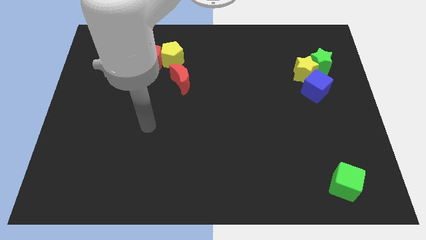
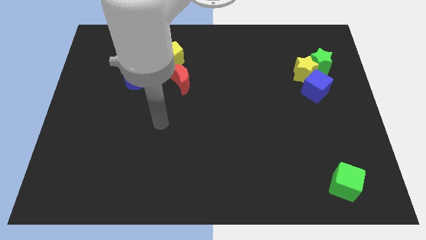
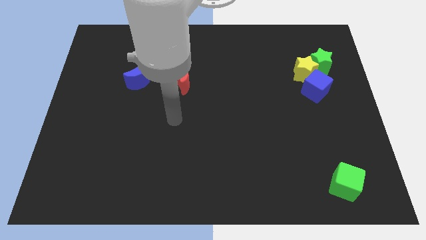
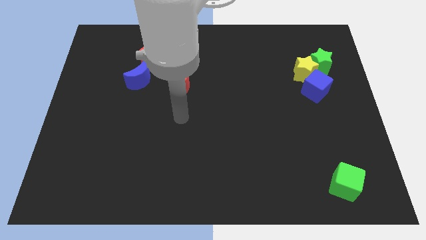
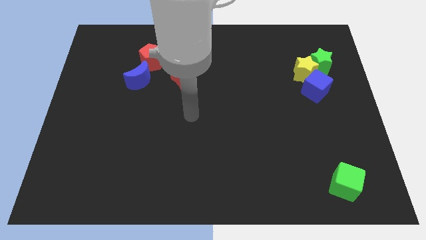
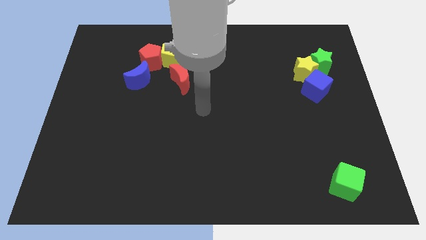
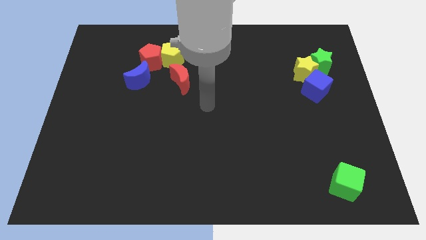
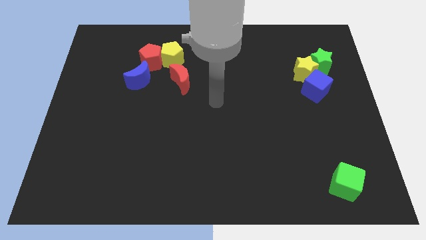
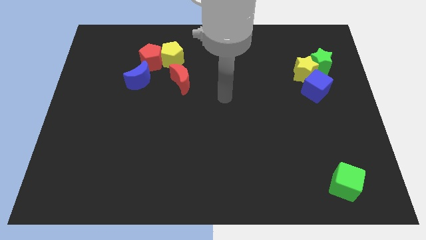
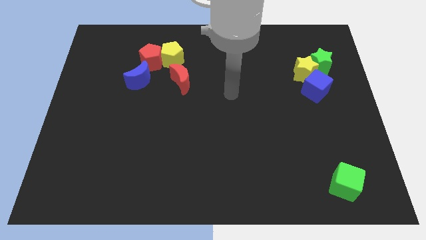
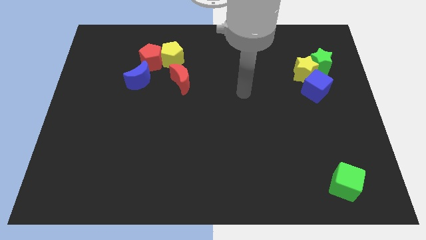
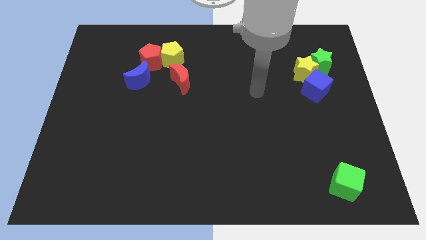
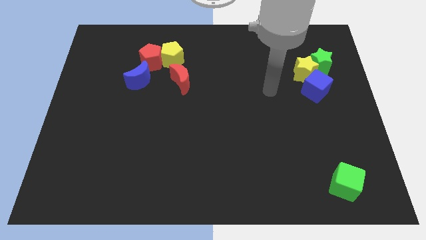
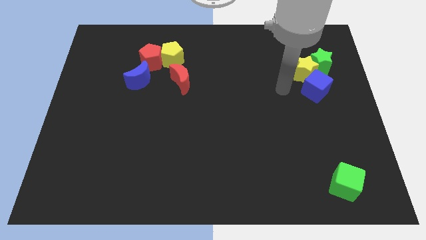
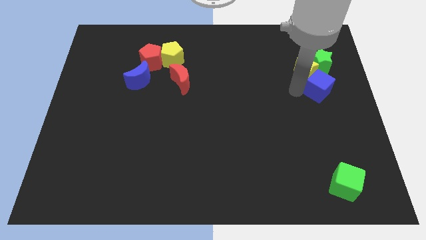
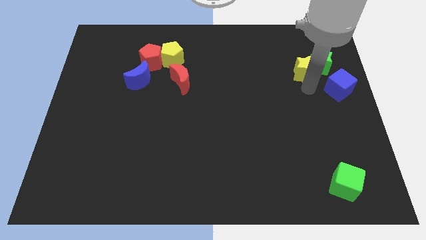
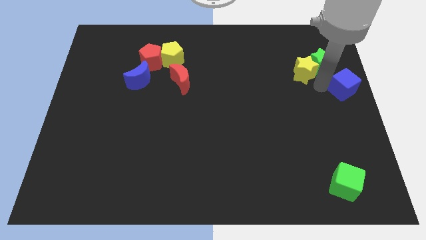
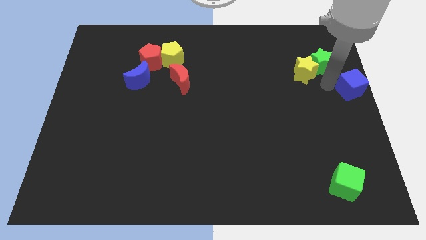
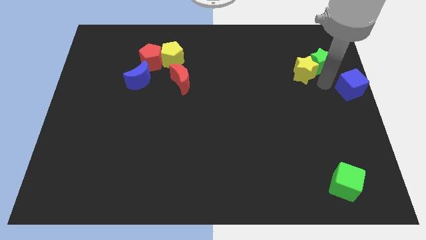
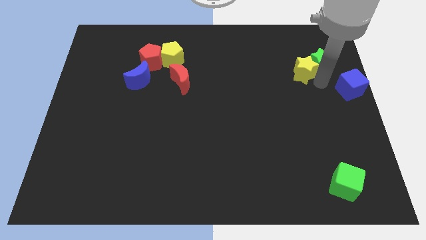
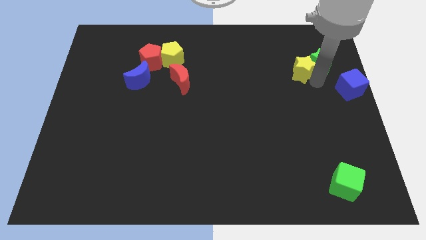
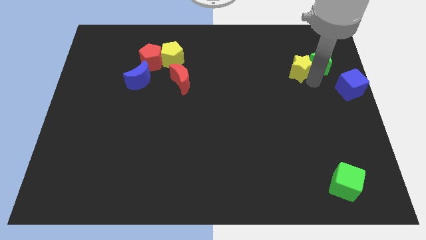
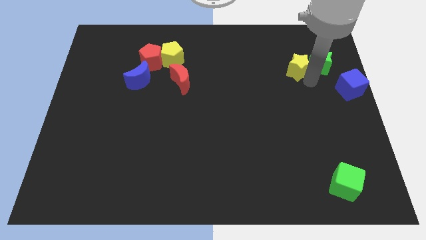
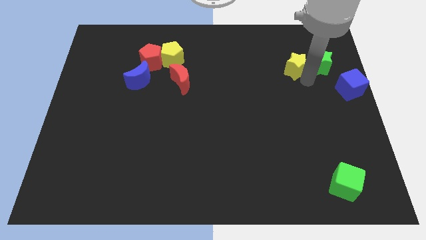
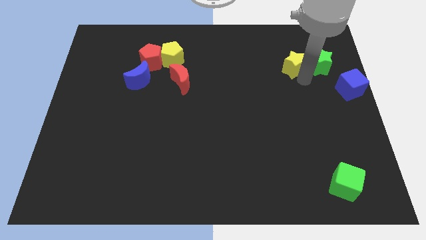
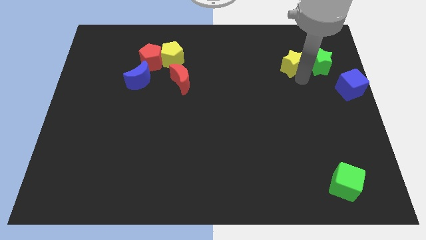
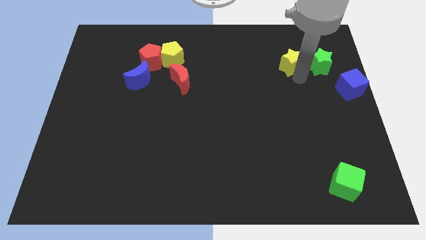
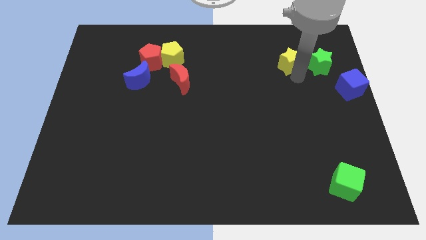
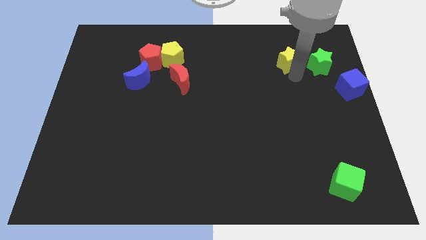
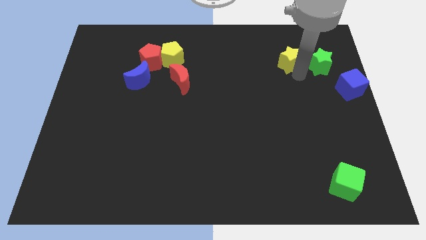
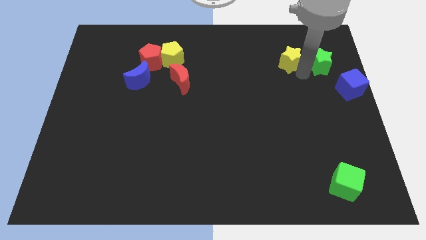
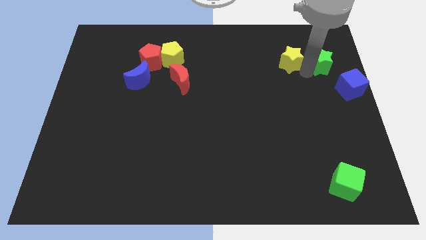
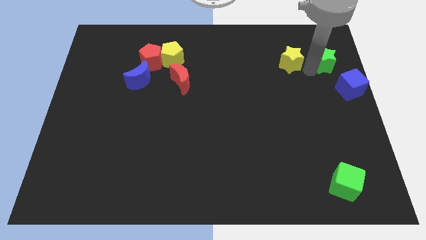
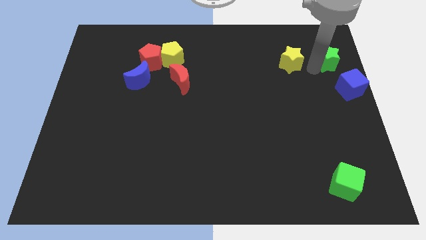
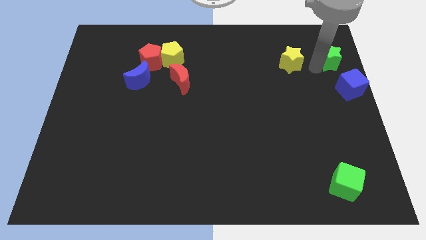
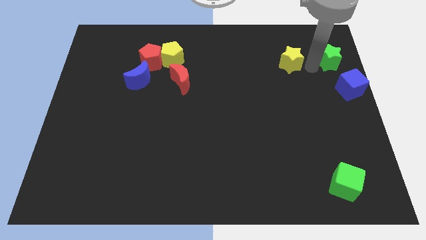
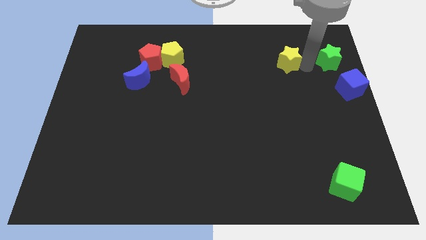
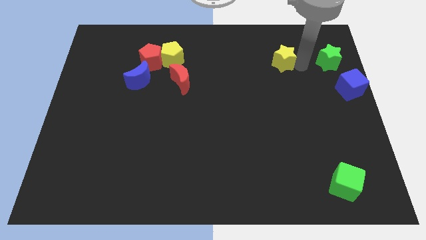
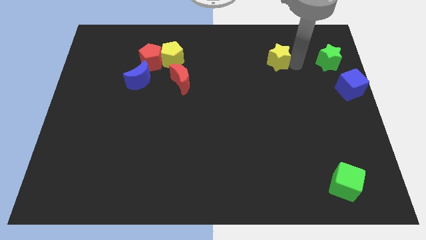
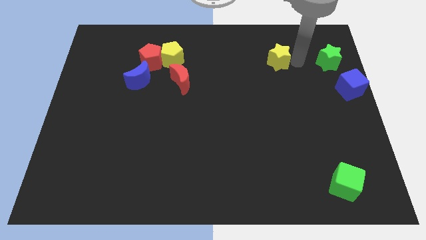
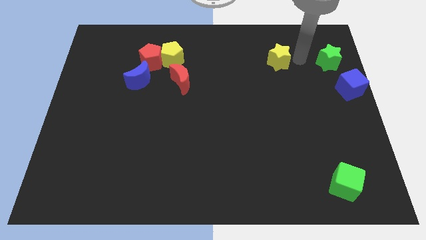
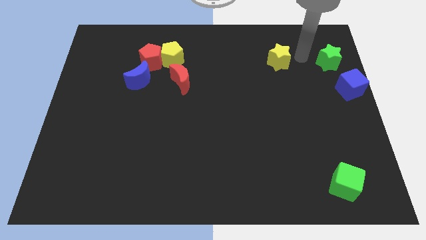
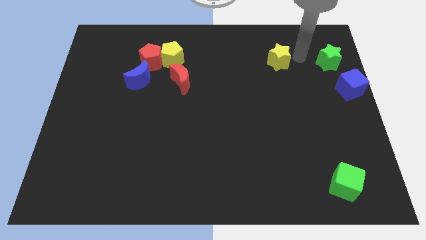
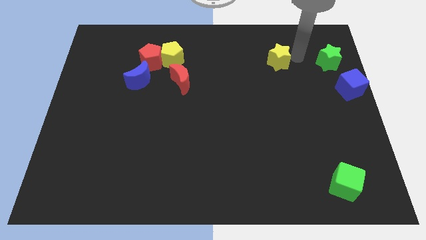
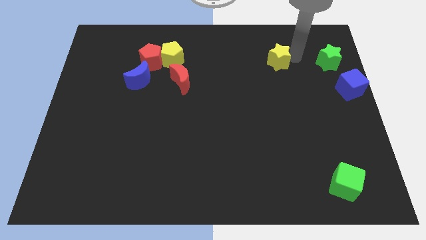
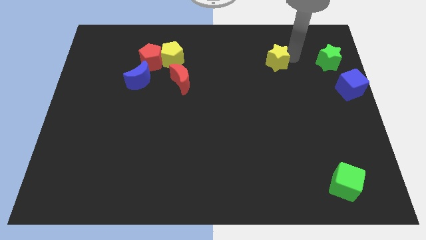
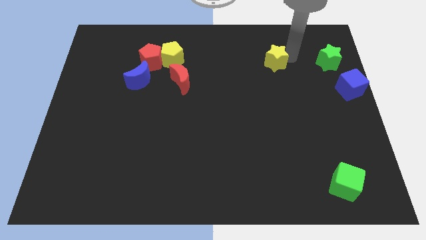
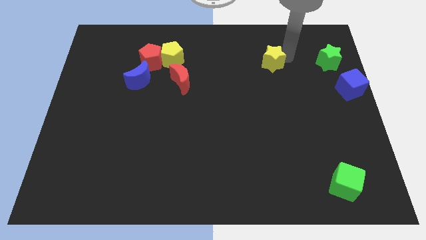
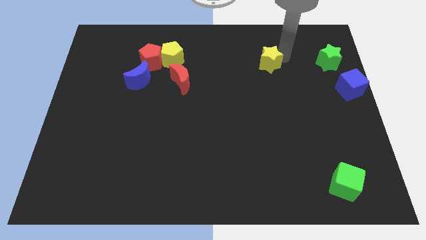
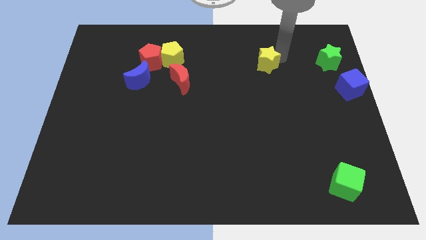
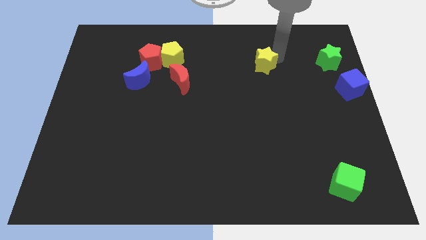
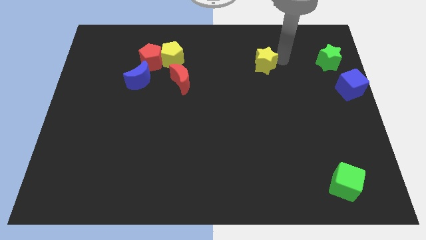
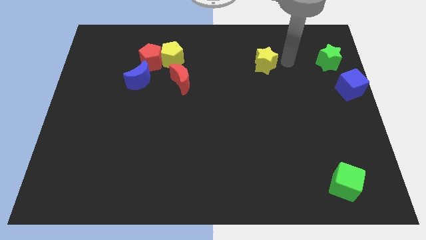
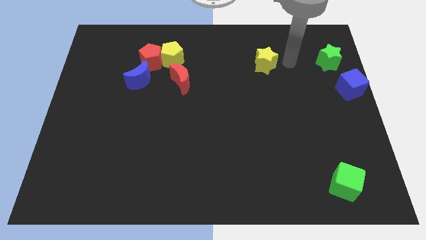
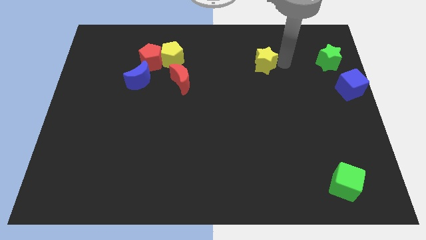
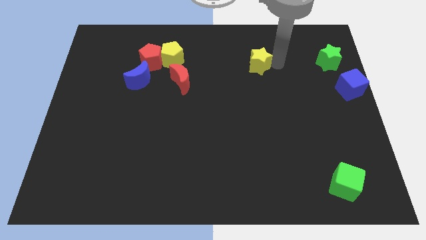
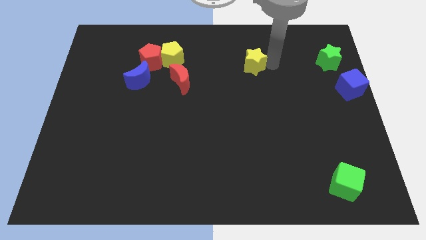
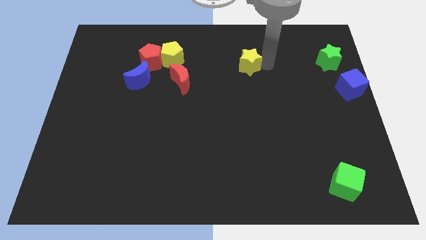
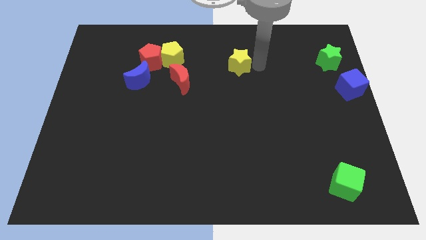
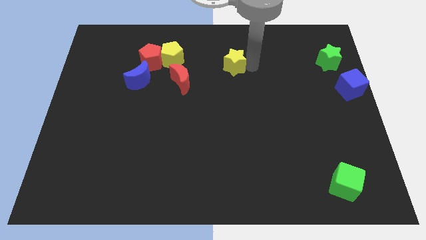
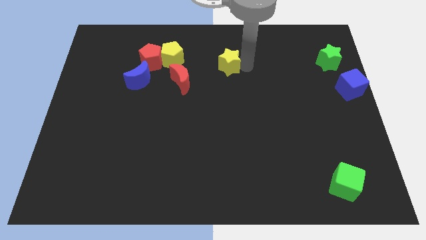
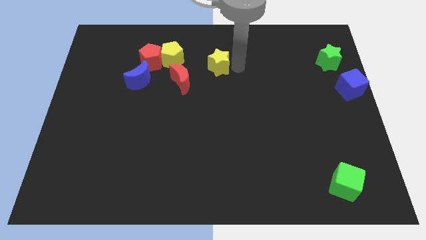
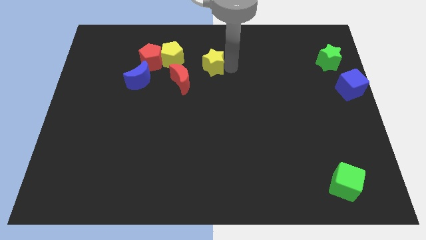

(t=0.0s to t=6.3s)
push the yellow star to the right side of the red pentagon

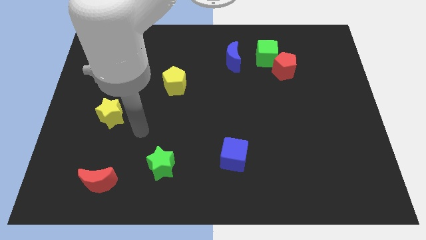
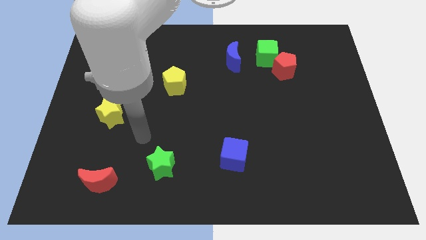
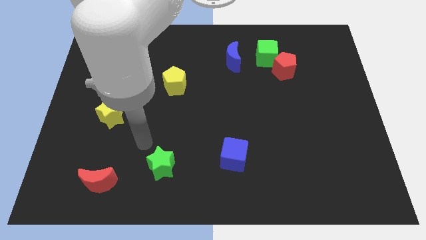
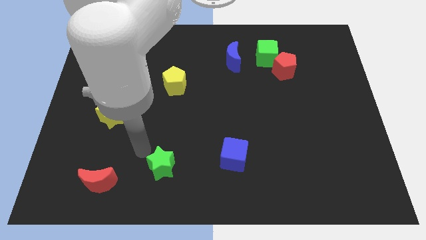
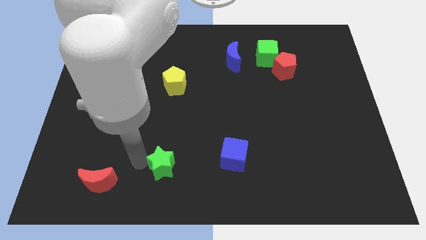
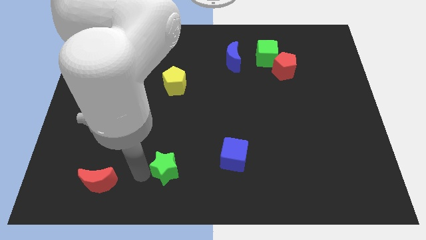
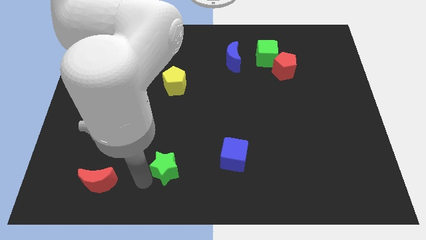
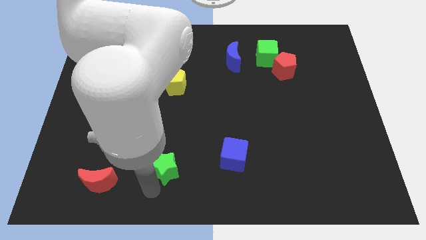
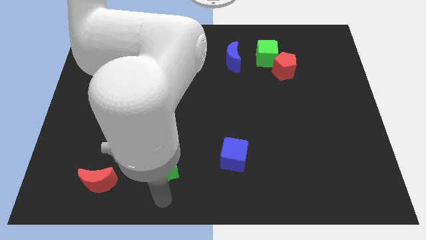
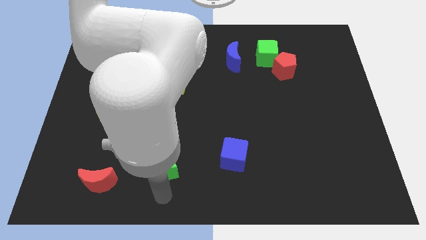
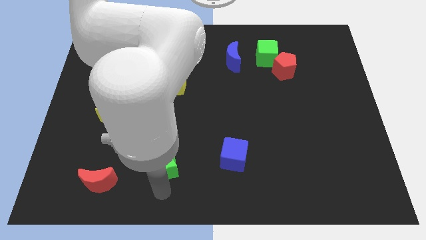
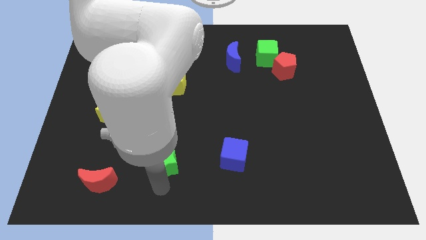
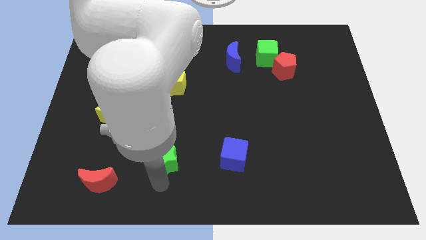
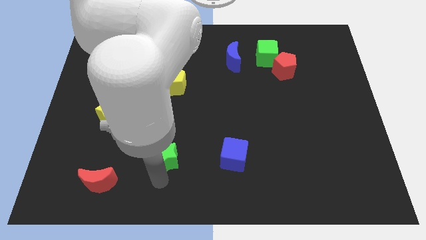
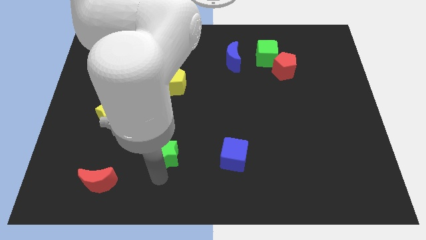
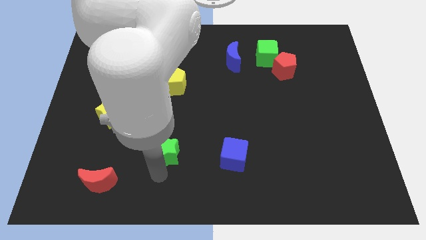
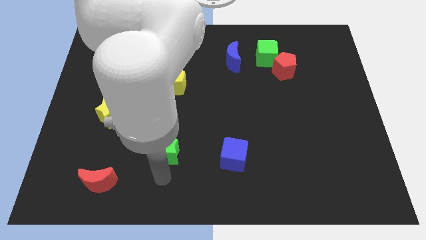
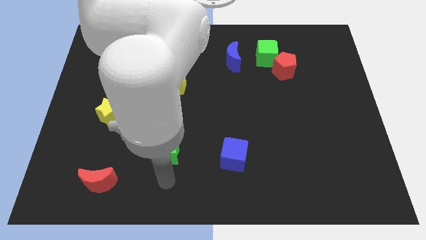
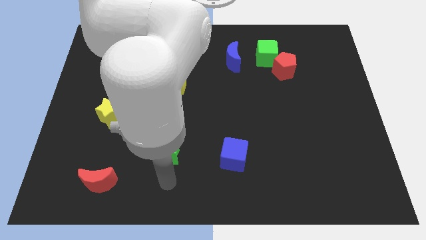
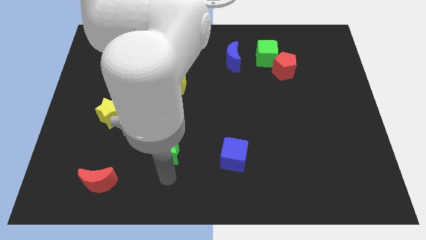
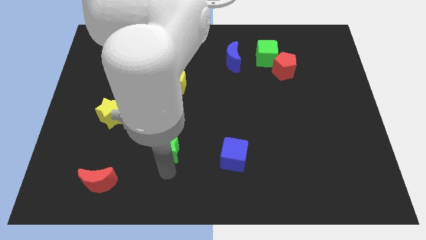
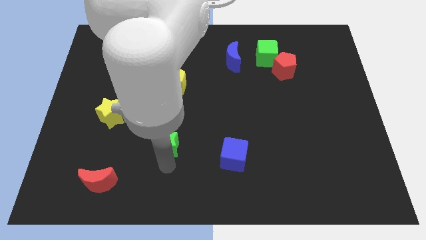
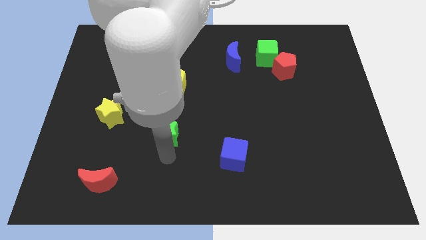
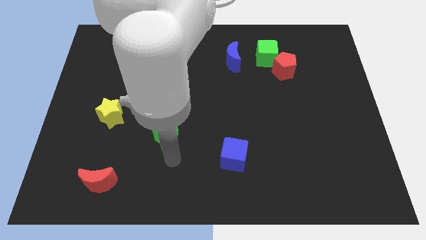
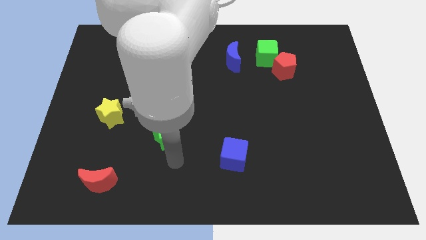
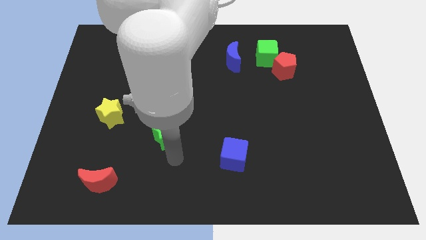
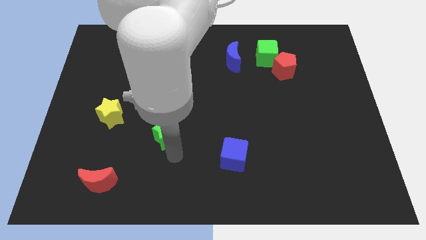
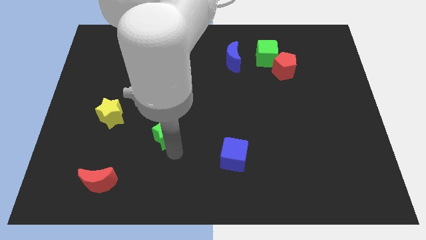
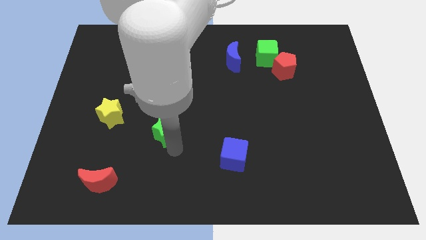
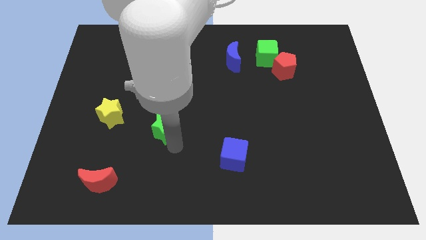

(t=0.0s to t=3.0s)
move the green star to the right of the yellow star
